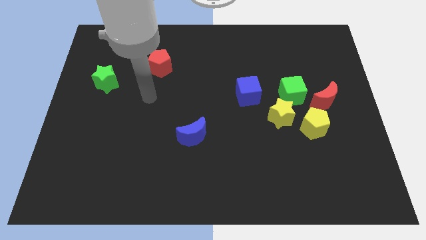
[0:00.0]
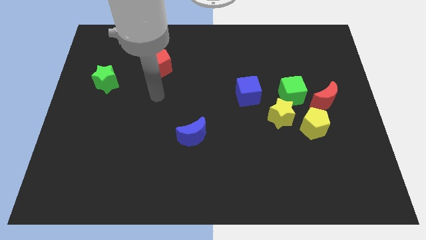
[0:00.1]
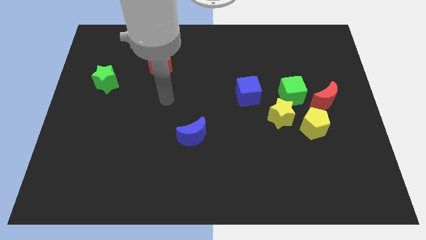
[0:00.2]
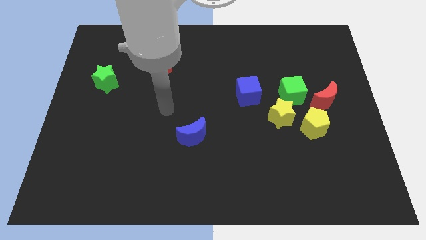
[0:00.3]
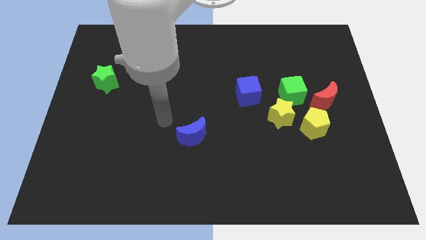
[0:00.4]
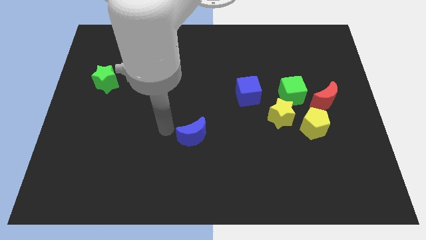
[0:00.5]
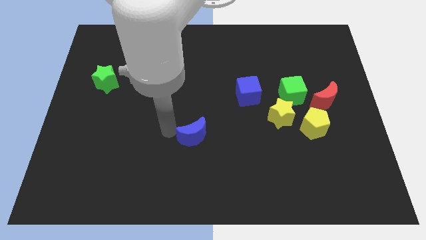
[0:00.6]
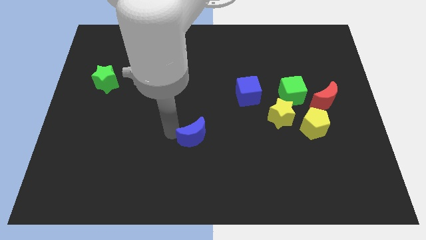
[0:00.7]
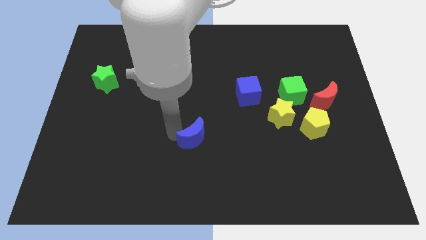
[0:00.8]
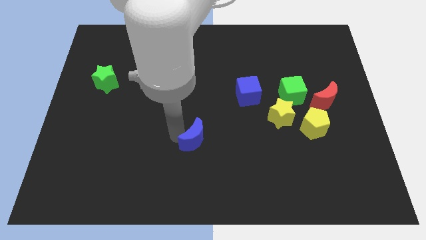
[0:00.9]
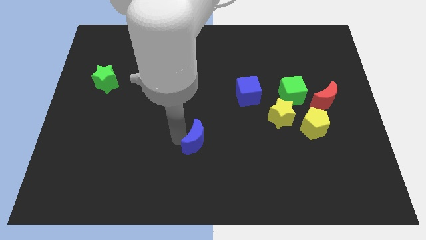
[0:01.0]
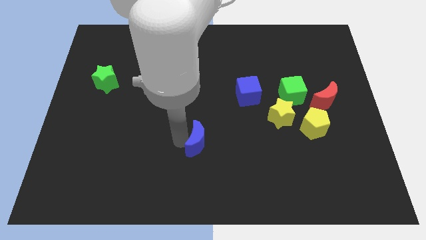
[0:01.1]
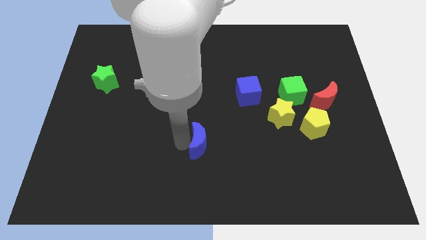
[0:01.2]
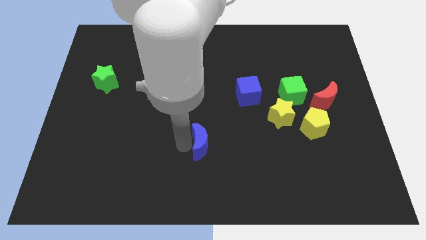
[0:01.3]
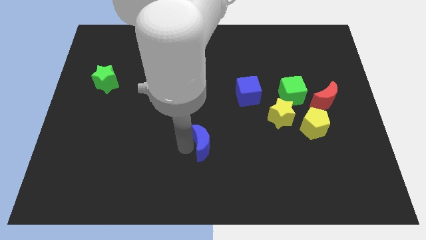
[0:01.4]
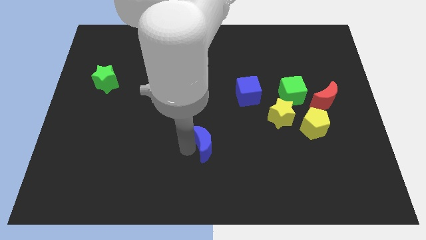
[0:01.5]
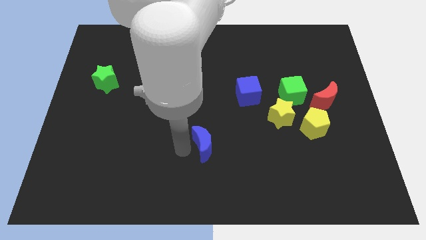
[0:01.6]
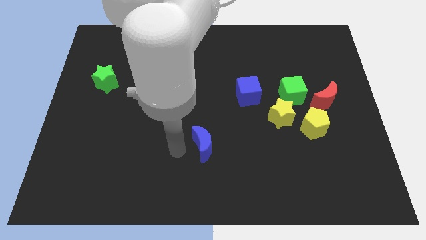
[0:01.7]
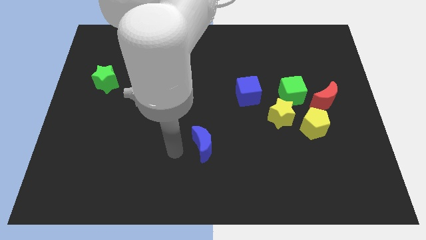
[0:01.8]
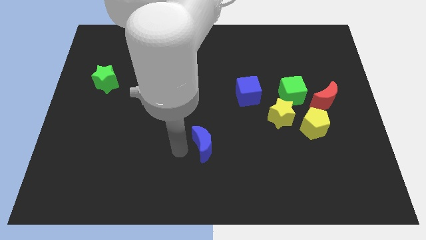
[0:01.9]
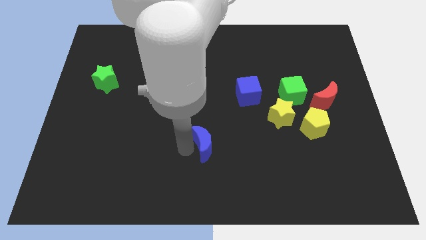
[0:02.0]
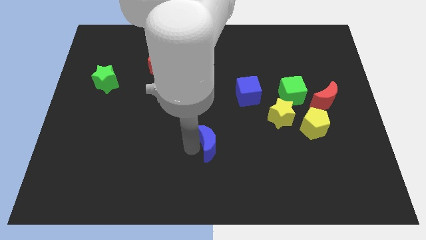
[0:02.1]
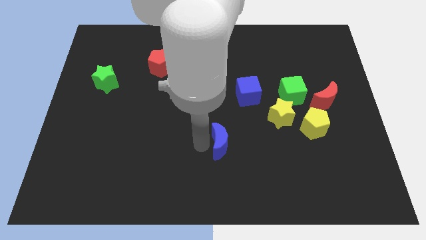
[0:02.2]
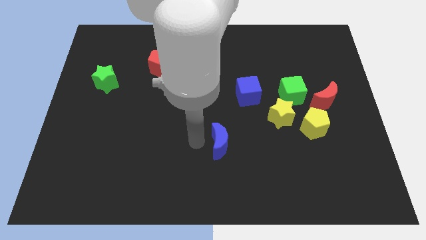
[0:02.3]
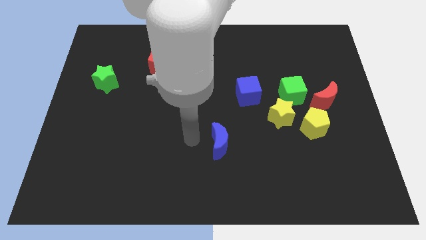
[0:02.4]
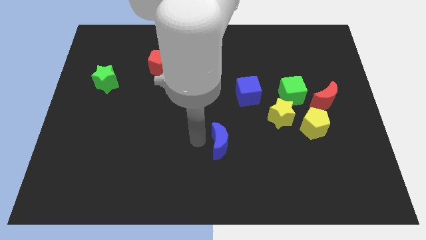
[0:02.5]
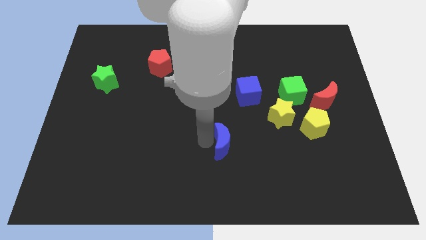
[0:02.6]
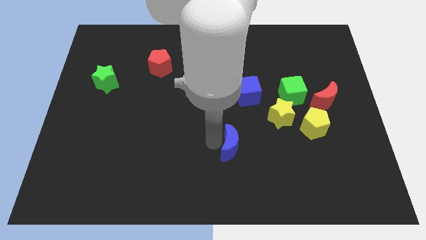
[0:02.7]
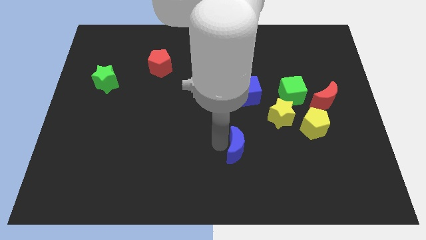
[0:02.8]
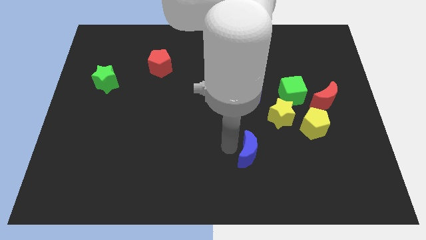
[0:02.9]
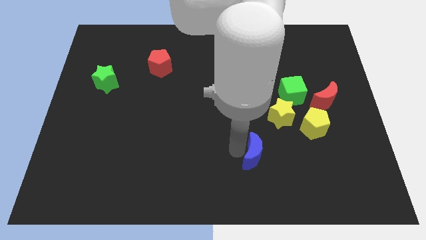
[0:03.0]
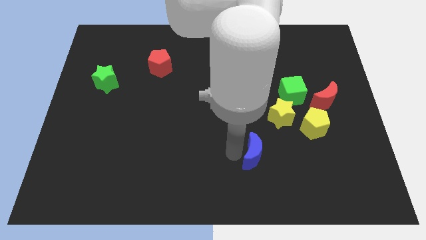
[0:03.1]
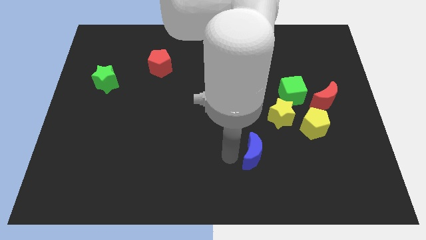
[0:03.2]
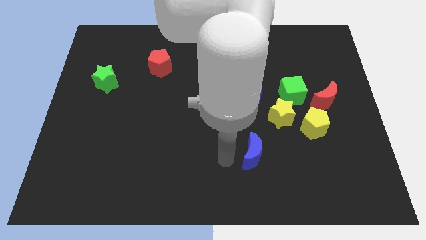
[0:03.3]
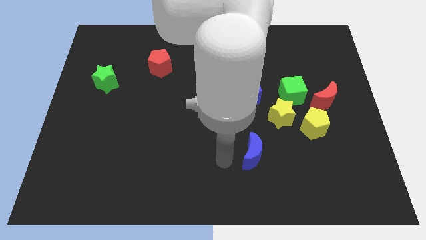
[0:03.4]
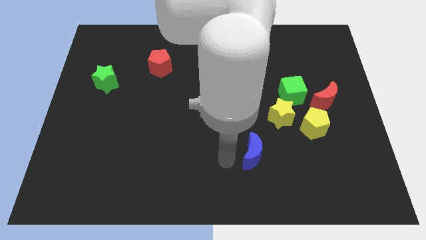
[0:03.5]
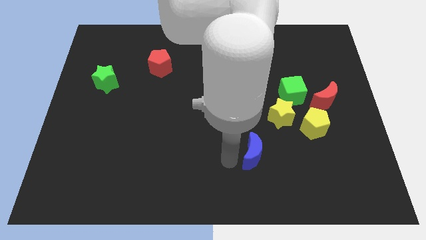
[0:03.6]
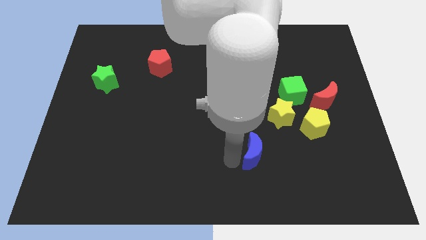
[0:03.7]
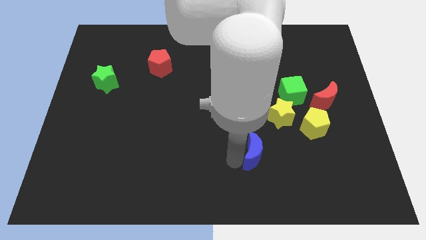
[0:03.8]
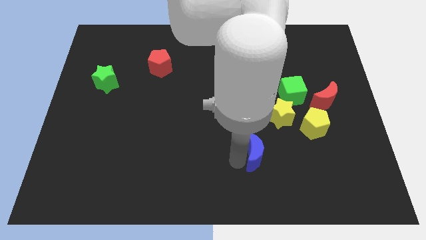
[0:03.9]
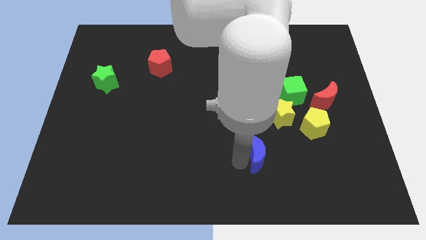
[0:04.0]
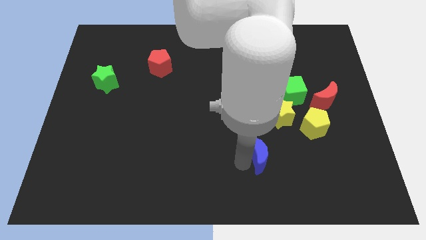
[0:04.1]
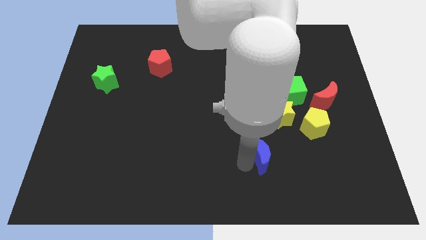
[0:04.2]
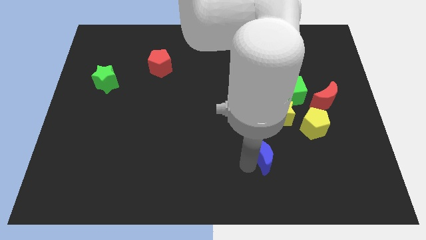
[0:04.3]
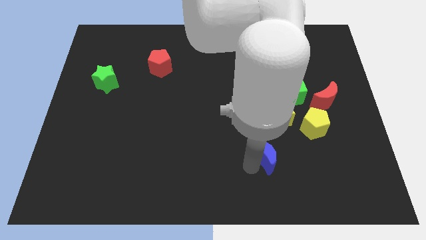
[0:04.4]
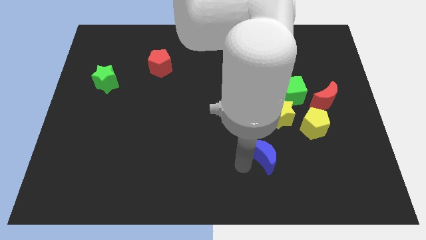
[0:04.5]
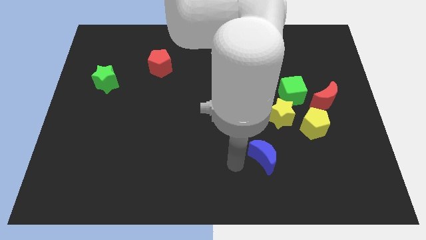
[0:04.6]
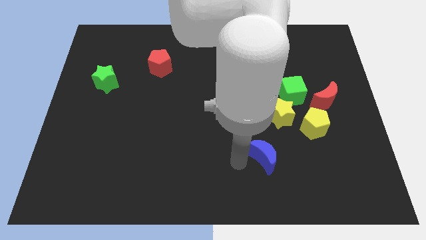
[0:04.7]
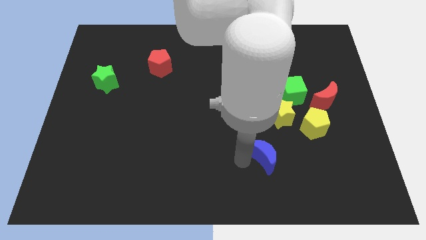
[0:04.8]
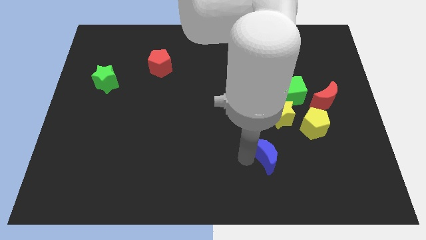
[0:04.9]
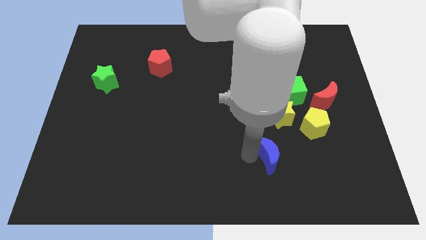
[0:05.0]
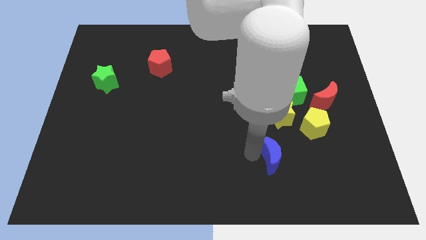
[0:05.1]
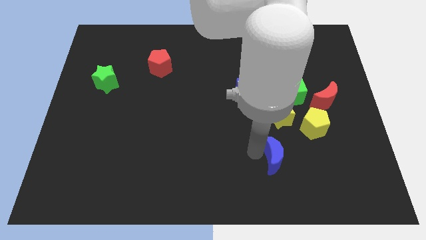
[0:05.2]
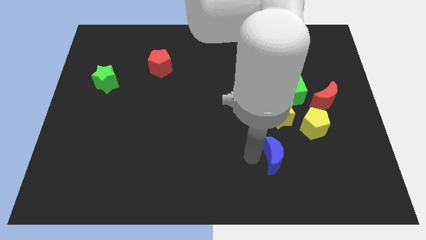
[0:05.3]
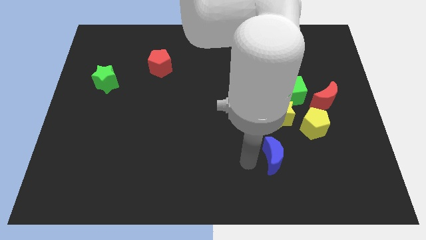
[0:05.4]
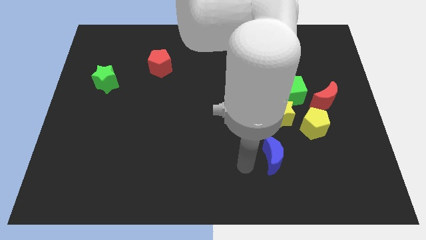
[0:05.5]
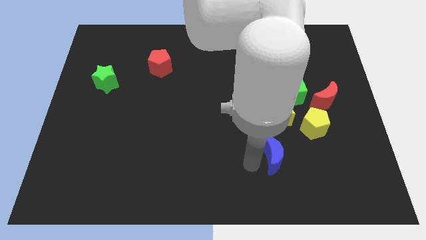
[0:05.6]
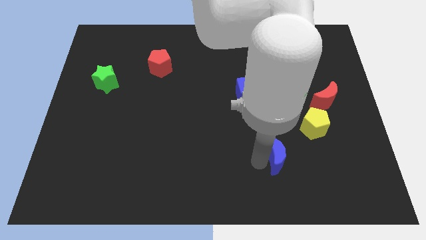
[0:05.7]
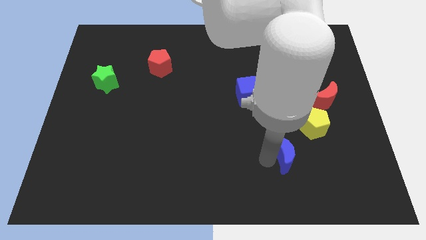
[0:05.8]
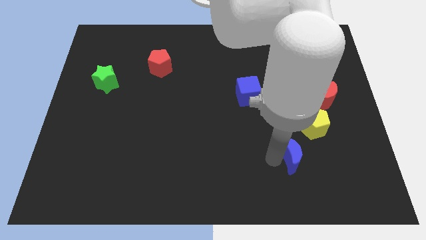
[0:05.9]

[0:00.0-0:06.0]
push the blue moon to the right

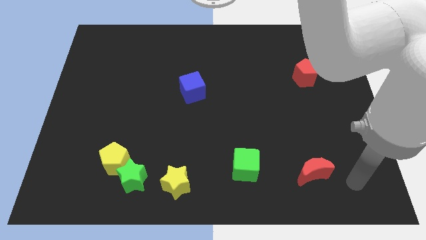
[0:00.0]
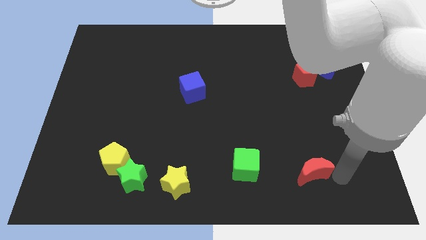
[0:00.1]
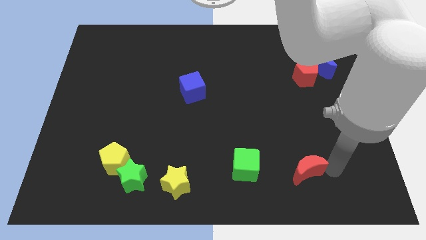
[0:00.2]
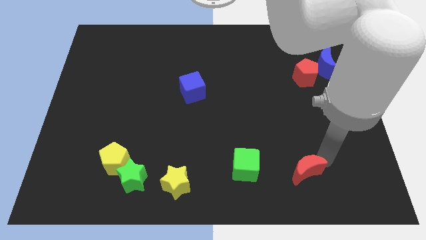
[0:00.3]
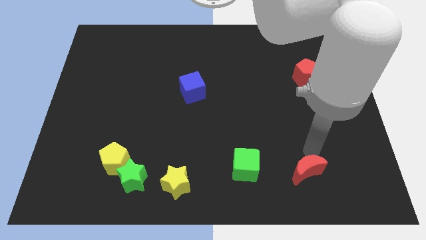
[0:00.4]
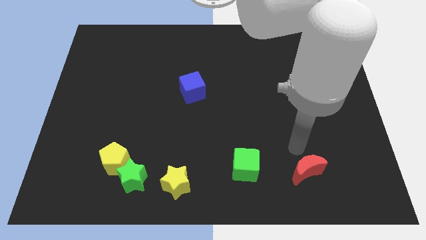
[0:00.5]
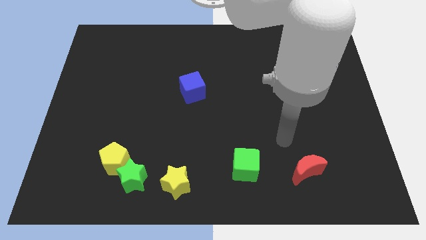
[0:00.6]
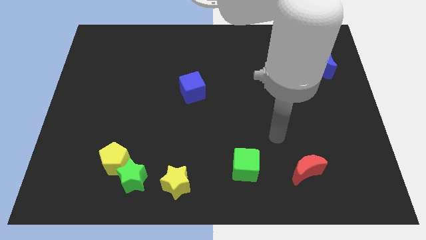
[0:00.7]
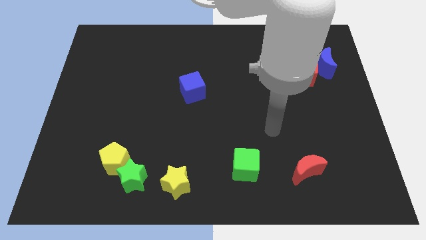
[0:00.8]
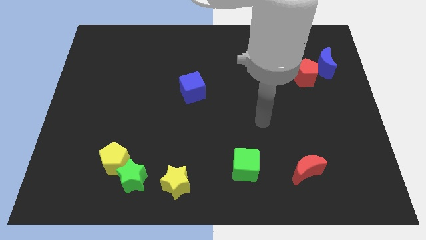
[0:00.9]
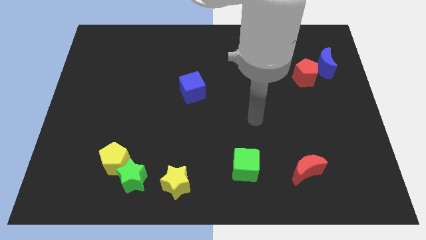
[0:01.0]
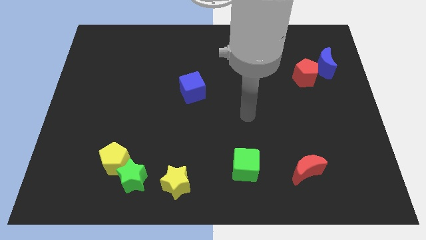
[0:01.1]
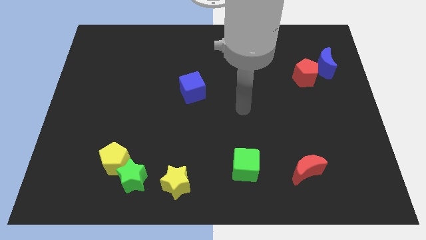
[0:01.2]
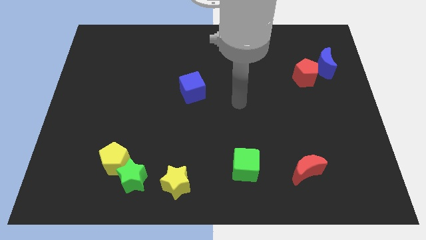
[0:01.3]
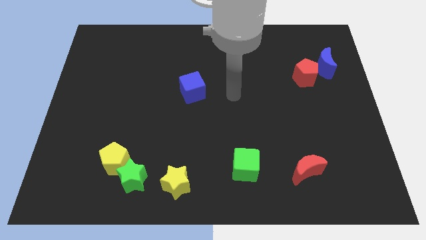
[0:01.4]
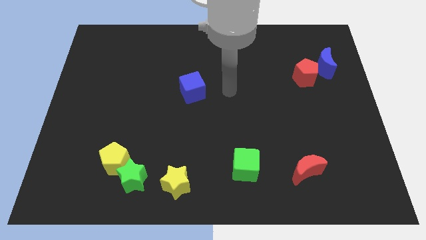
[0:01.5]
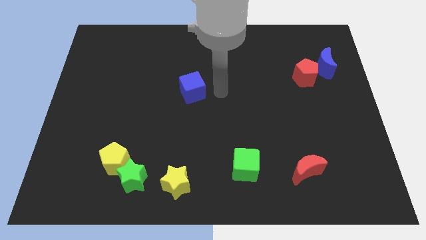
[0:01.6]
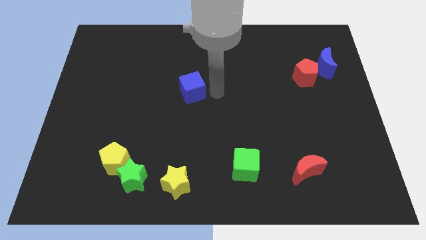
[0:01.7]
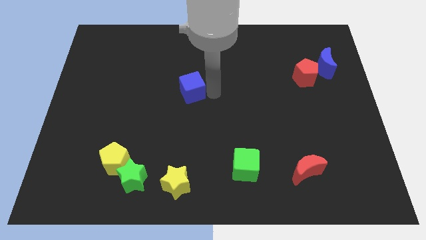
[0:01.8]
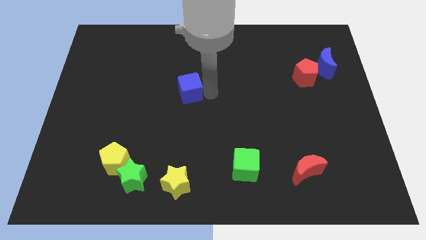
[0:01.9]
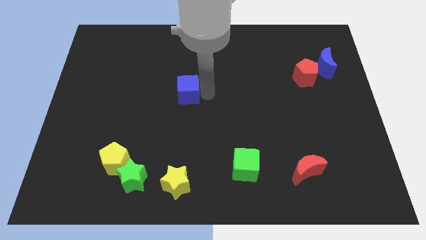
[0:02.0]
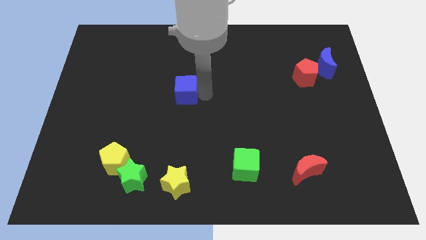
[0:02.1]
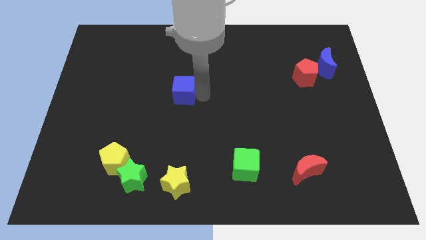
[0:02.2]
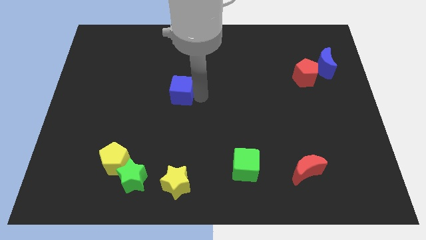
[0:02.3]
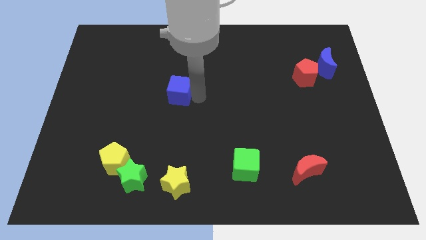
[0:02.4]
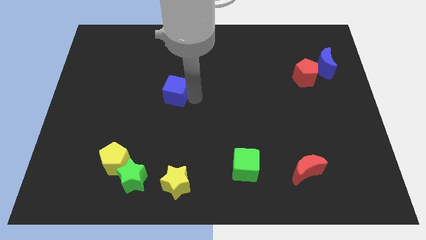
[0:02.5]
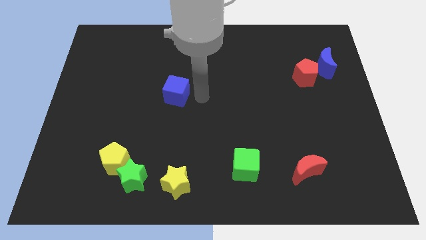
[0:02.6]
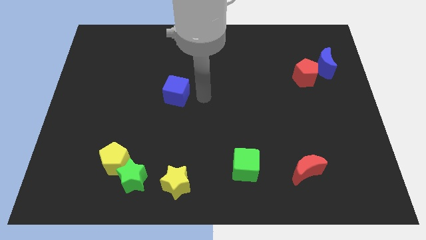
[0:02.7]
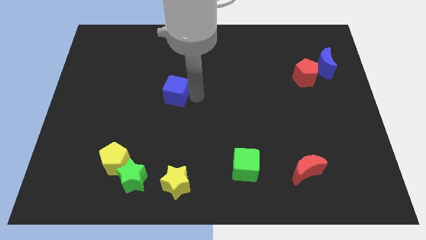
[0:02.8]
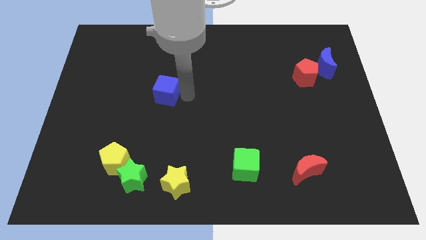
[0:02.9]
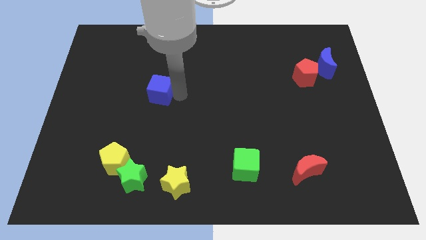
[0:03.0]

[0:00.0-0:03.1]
slightly move the blue cube left
